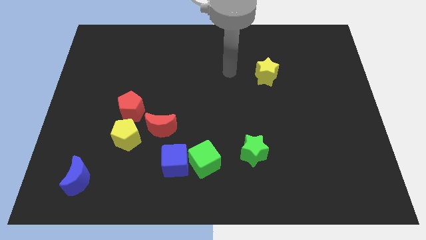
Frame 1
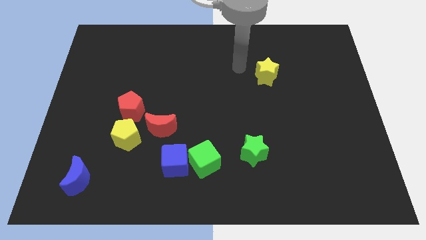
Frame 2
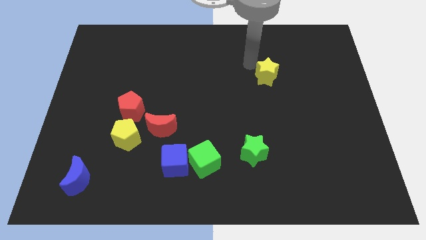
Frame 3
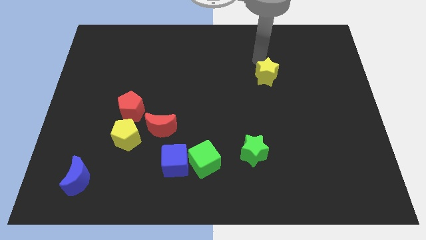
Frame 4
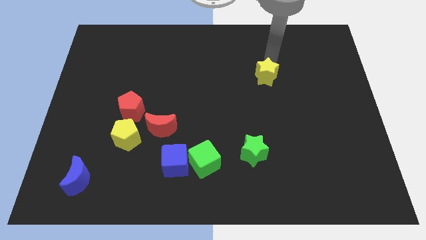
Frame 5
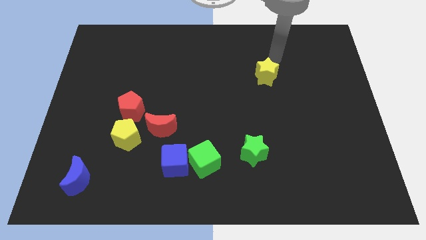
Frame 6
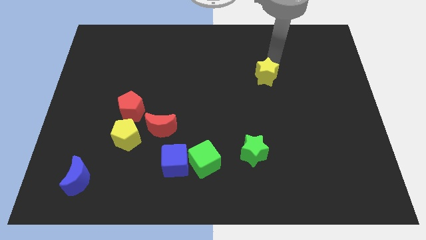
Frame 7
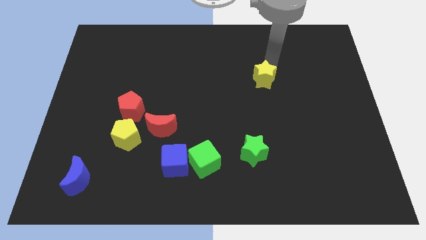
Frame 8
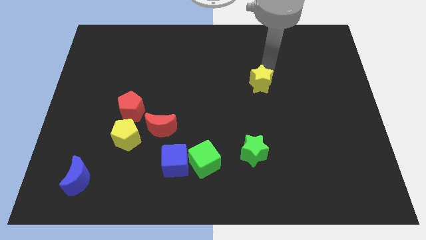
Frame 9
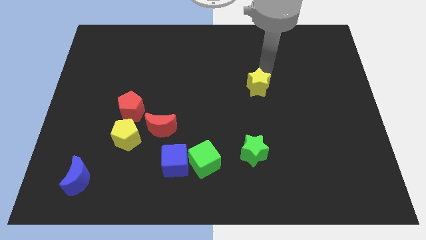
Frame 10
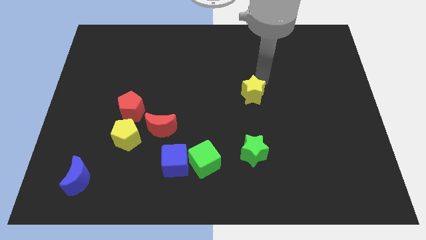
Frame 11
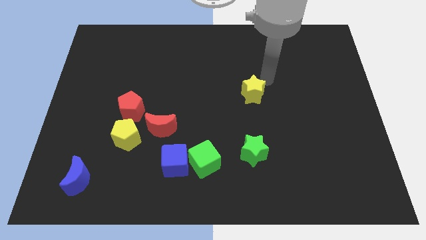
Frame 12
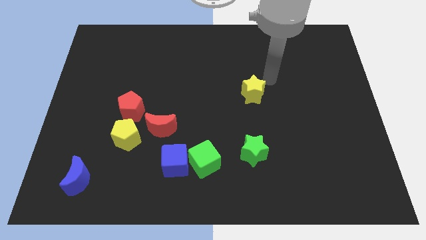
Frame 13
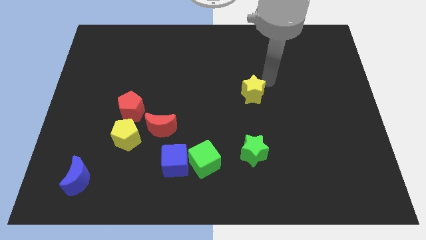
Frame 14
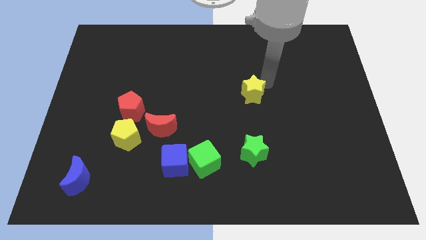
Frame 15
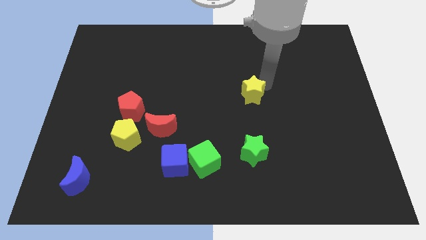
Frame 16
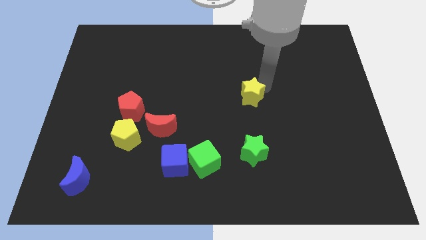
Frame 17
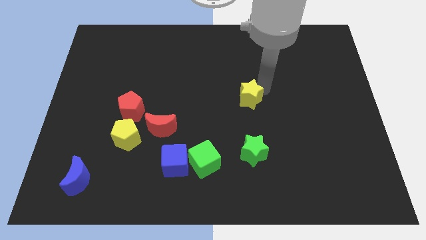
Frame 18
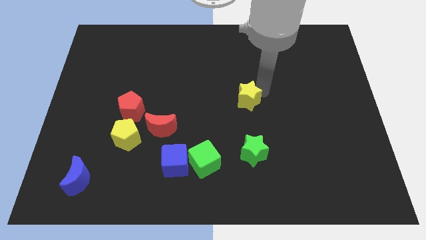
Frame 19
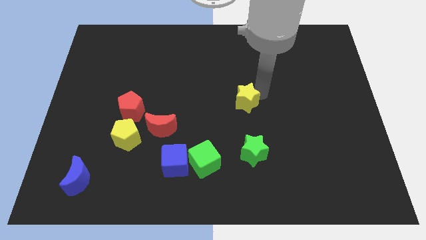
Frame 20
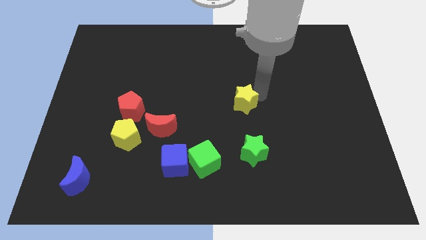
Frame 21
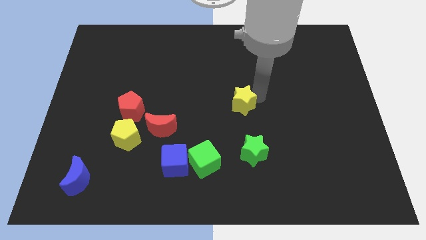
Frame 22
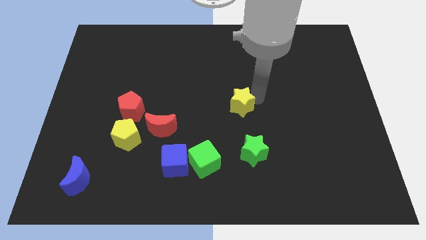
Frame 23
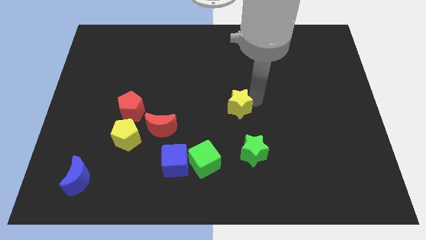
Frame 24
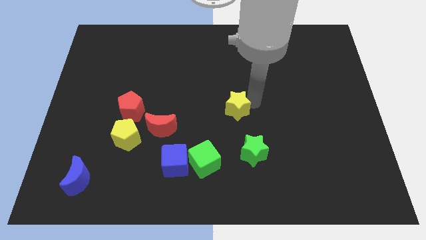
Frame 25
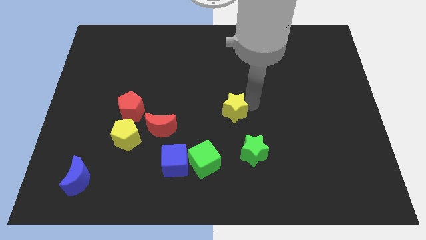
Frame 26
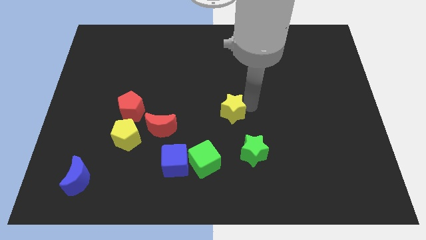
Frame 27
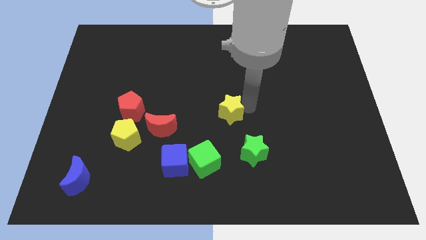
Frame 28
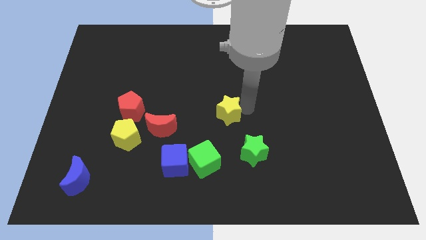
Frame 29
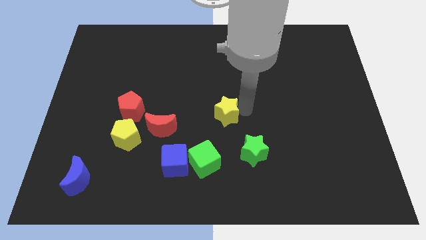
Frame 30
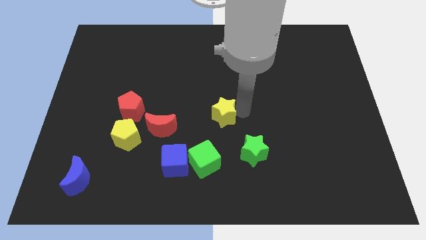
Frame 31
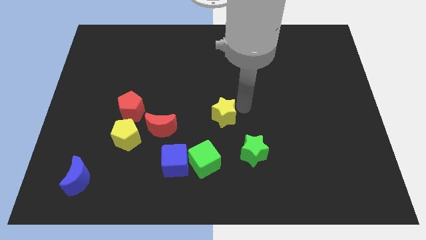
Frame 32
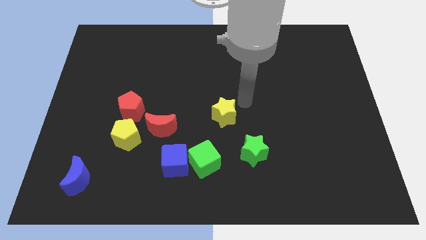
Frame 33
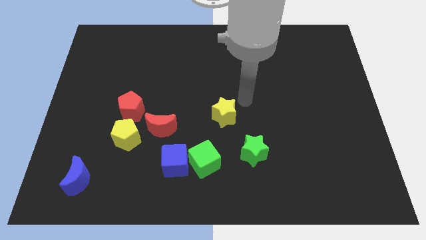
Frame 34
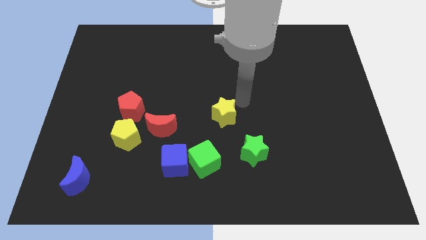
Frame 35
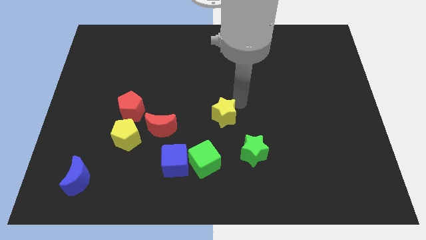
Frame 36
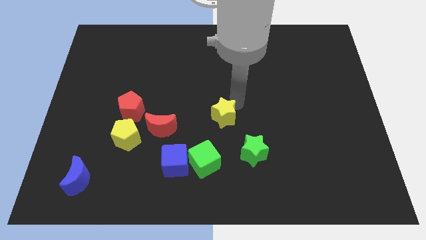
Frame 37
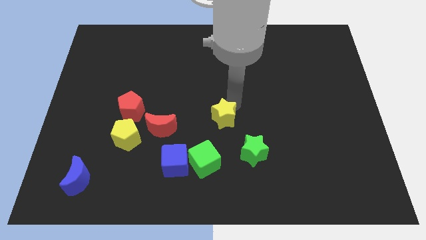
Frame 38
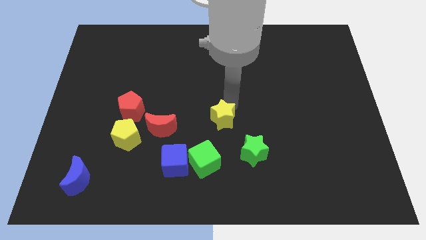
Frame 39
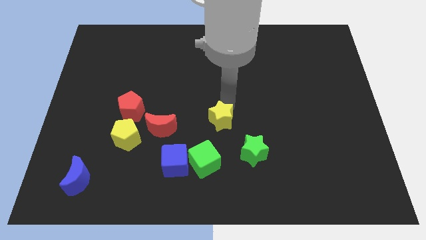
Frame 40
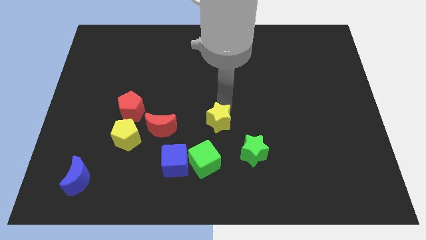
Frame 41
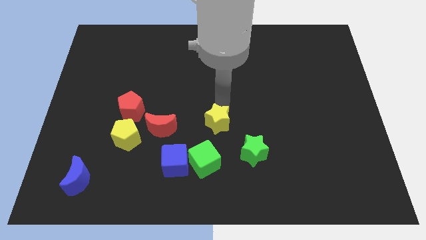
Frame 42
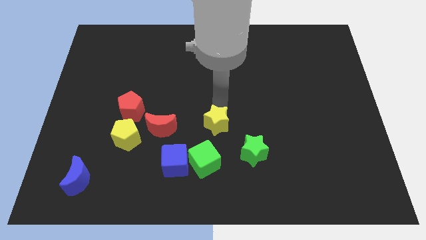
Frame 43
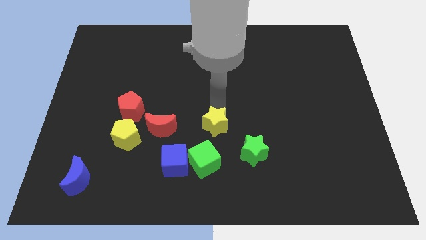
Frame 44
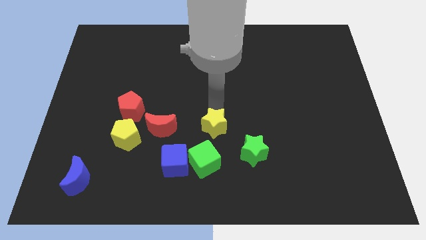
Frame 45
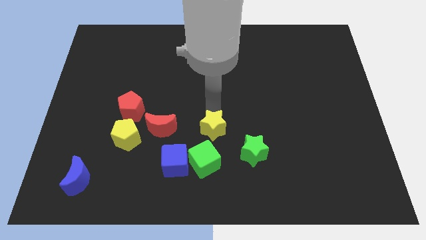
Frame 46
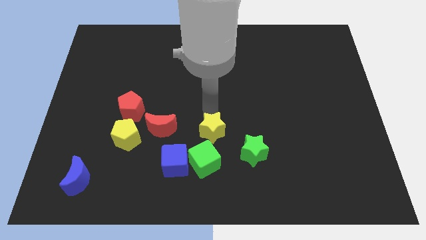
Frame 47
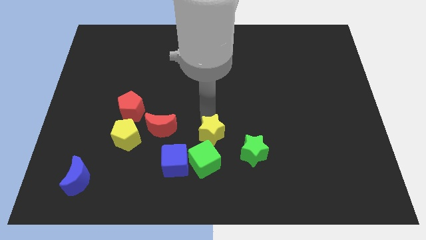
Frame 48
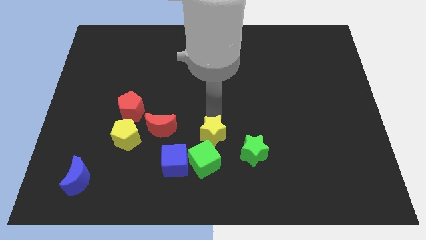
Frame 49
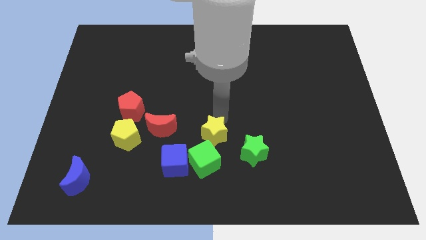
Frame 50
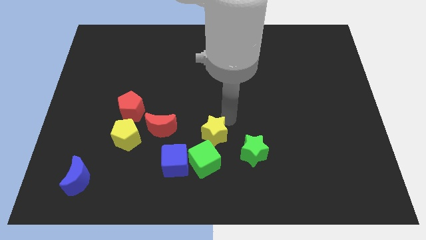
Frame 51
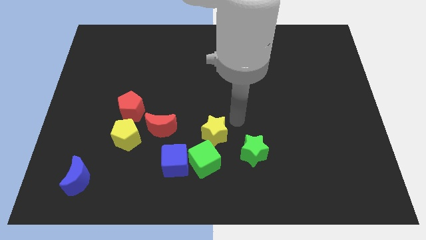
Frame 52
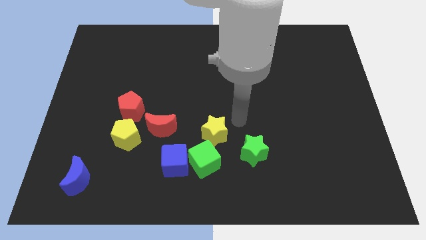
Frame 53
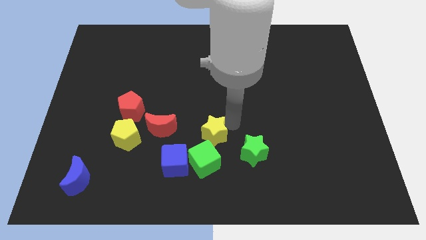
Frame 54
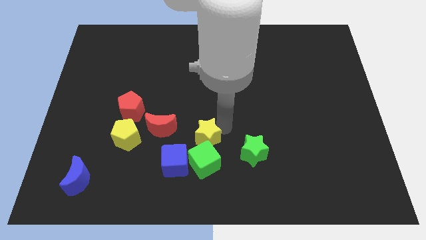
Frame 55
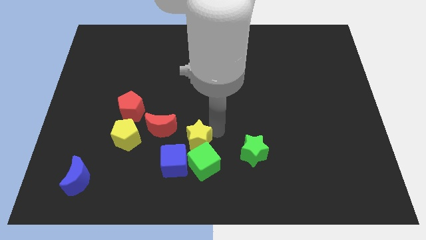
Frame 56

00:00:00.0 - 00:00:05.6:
move the yellow star to the bottom right of the red moon

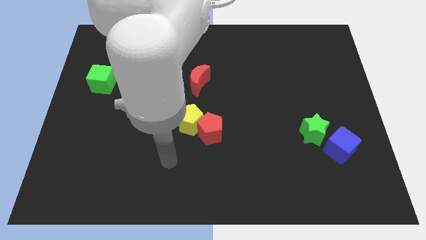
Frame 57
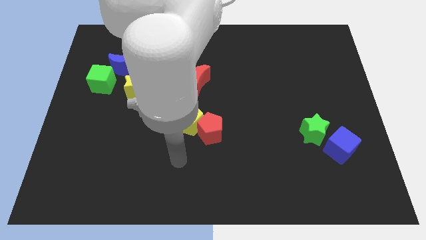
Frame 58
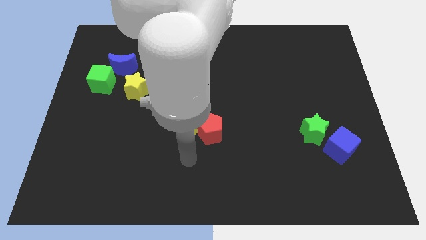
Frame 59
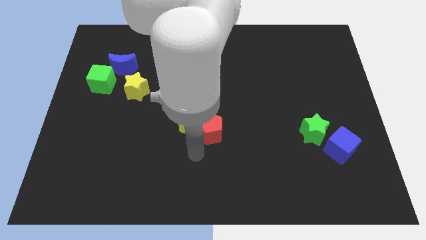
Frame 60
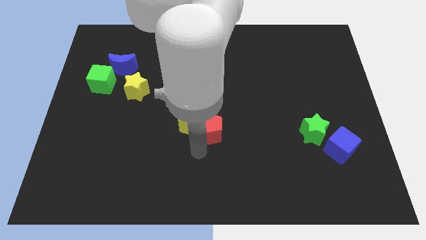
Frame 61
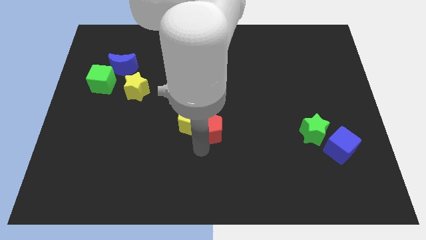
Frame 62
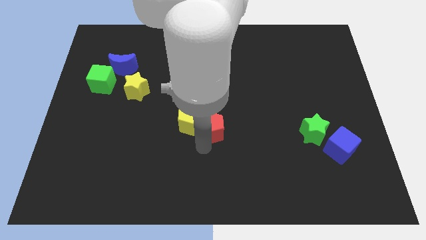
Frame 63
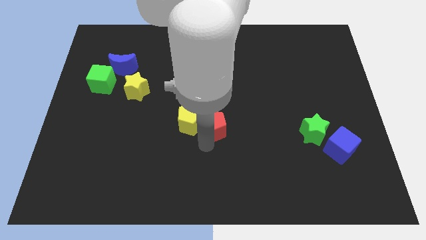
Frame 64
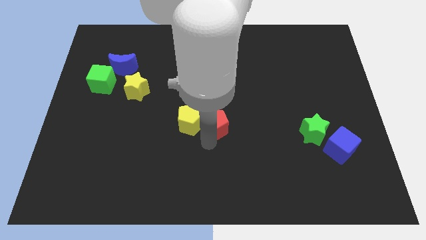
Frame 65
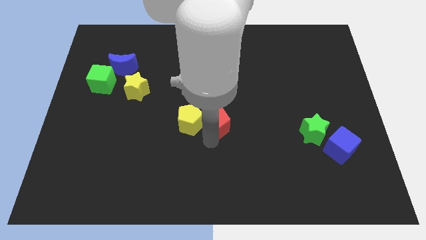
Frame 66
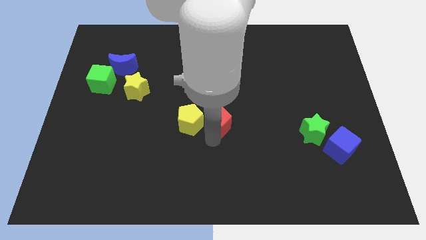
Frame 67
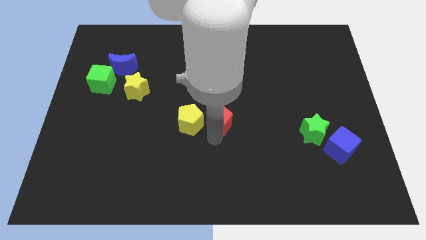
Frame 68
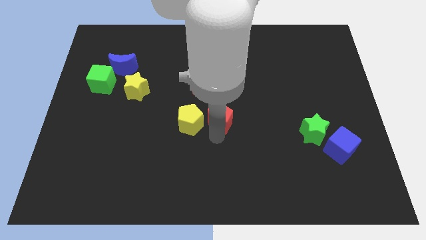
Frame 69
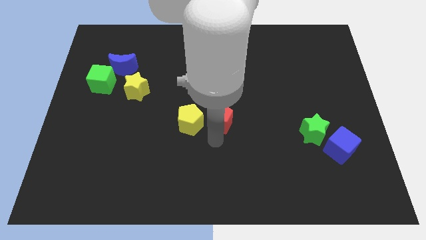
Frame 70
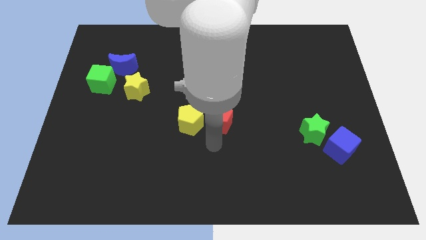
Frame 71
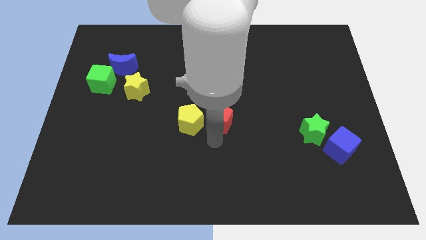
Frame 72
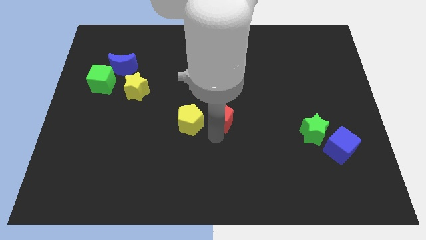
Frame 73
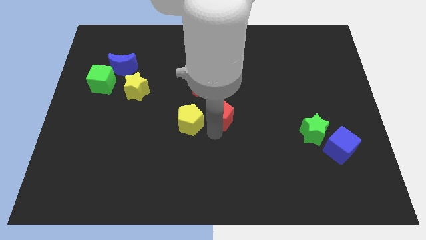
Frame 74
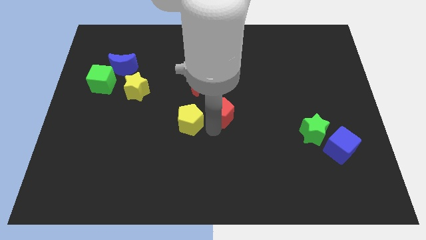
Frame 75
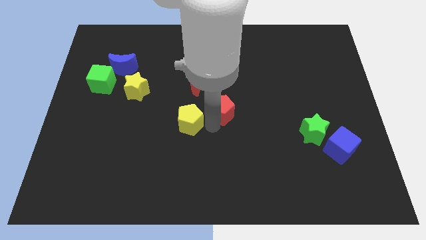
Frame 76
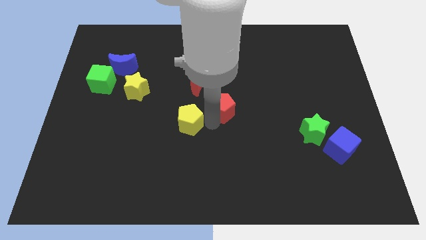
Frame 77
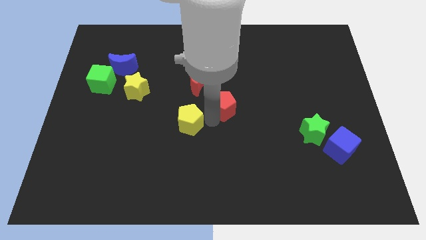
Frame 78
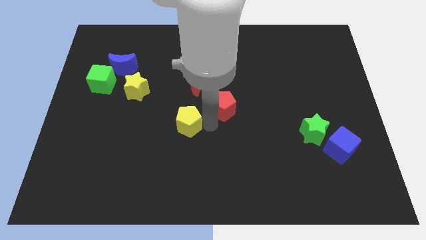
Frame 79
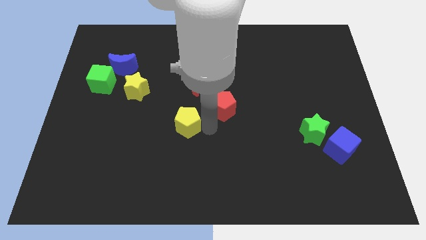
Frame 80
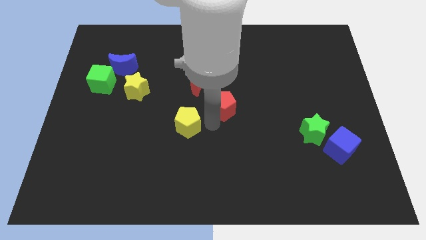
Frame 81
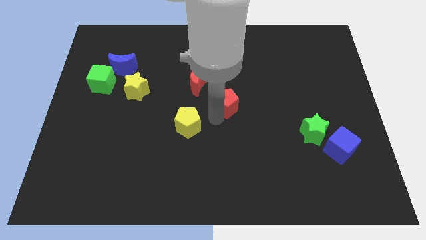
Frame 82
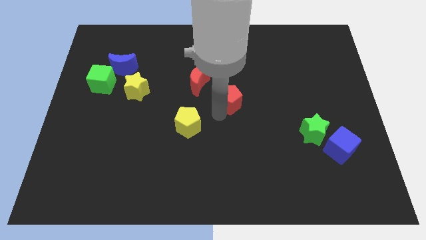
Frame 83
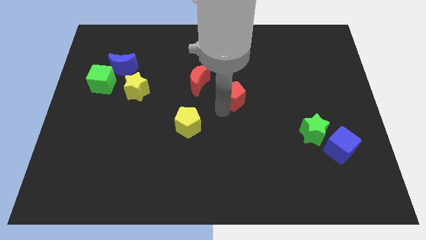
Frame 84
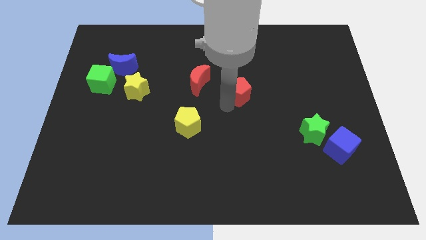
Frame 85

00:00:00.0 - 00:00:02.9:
put the red pentagon to the right of the red moon
